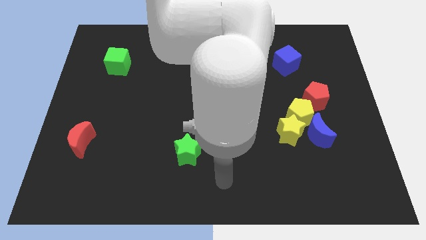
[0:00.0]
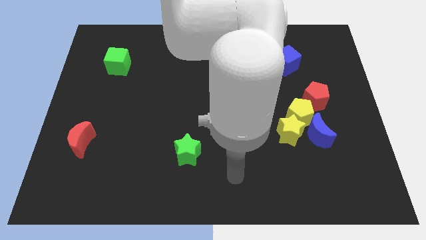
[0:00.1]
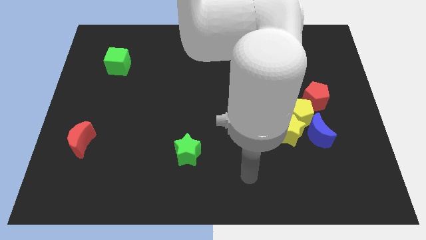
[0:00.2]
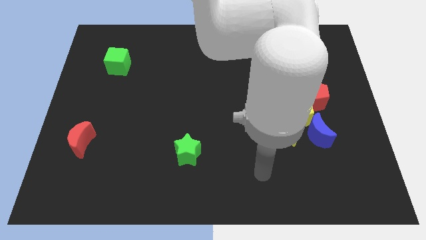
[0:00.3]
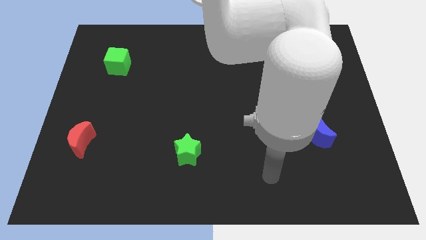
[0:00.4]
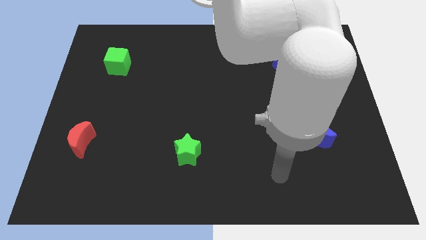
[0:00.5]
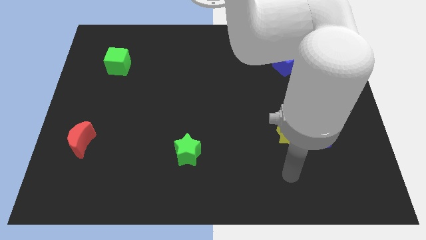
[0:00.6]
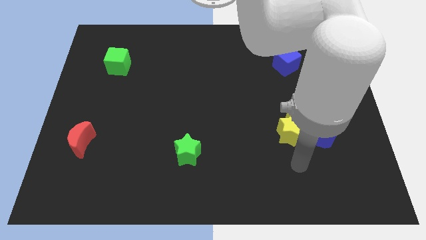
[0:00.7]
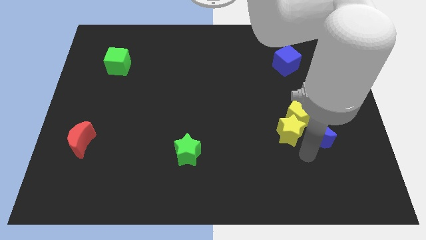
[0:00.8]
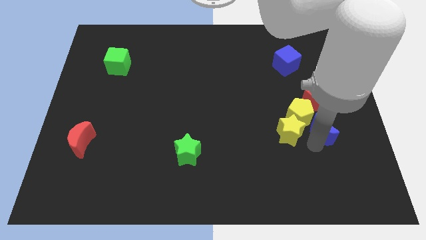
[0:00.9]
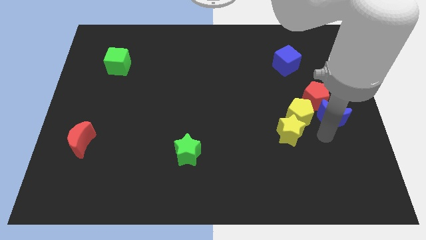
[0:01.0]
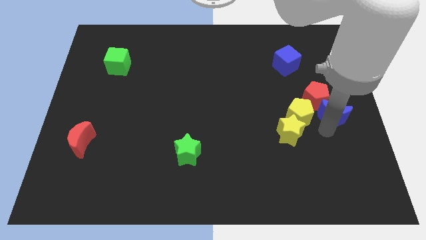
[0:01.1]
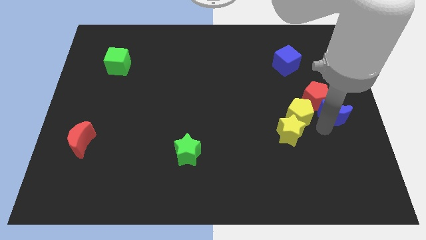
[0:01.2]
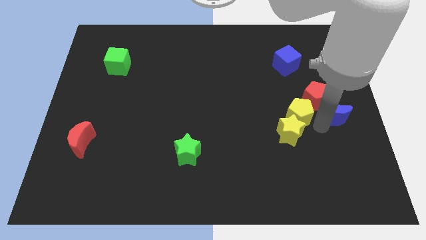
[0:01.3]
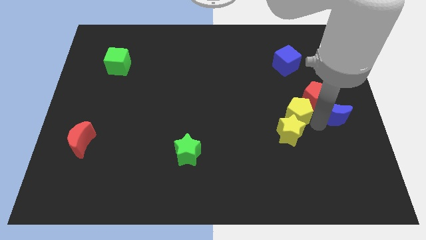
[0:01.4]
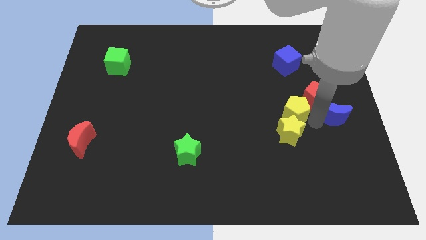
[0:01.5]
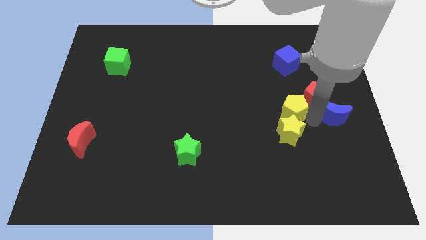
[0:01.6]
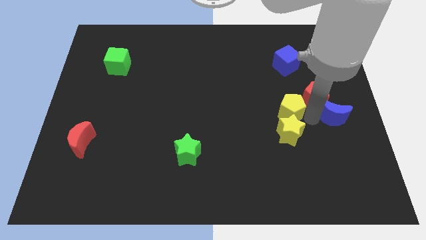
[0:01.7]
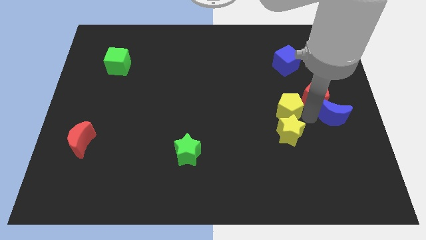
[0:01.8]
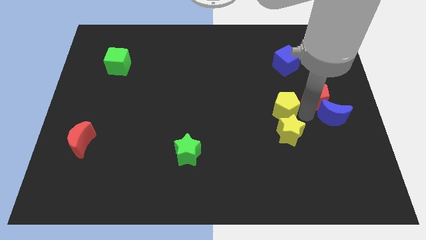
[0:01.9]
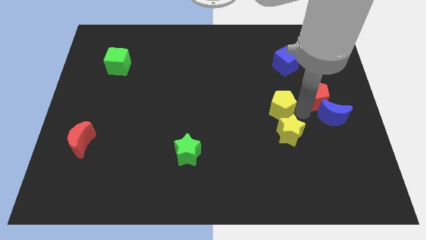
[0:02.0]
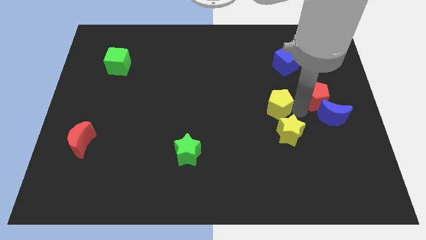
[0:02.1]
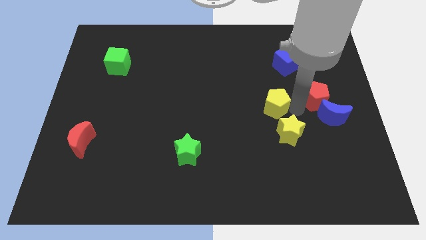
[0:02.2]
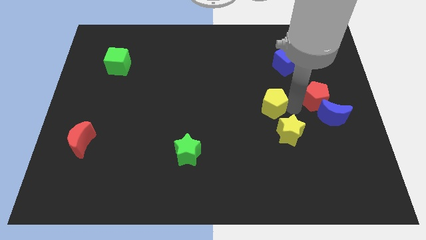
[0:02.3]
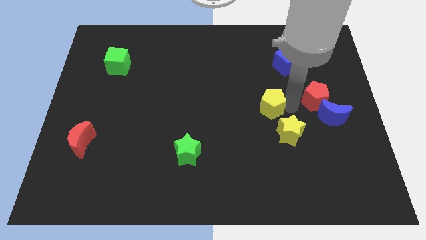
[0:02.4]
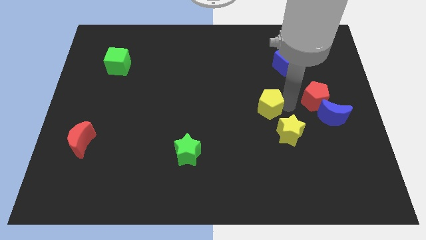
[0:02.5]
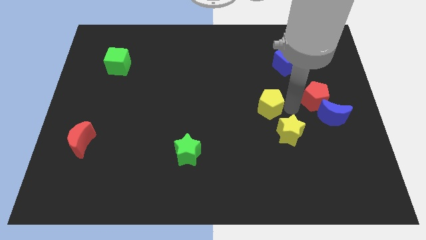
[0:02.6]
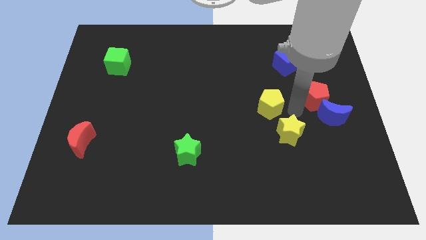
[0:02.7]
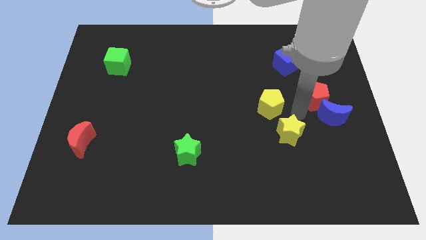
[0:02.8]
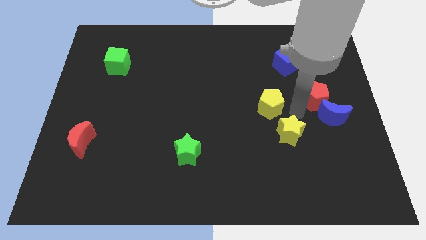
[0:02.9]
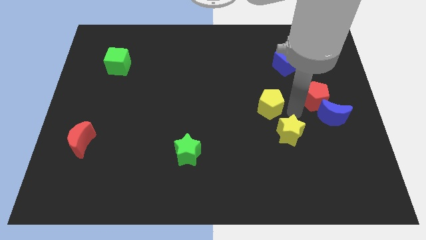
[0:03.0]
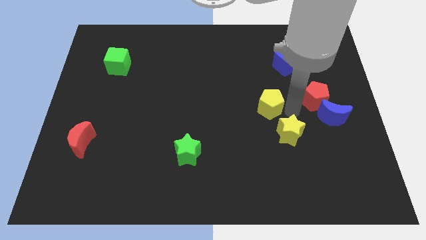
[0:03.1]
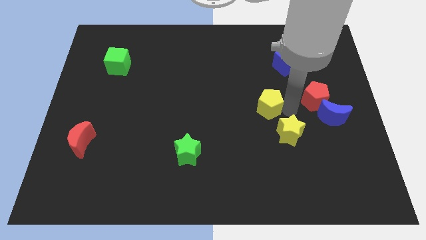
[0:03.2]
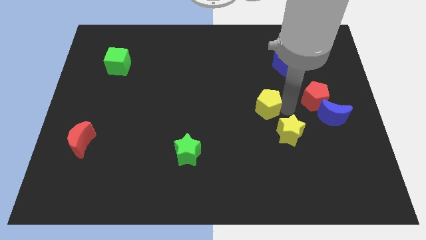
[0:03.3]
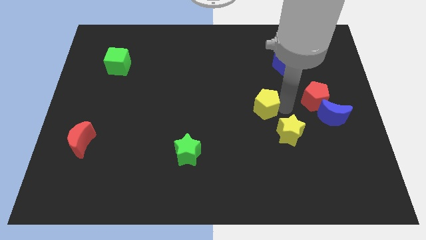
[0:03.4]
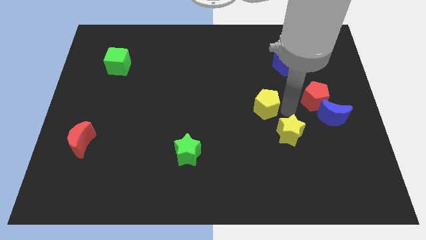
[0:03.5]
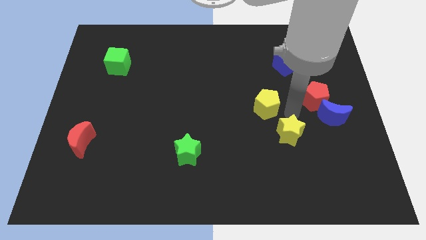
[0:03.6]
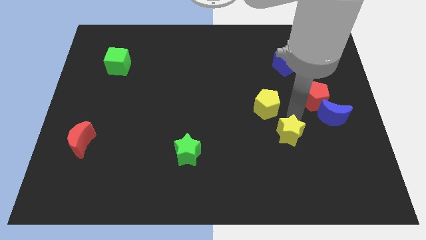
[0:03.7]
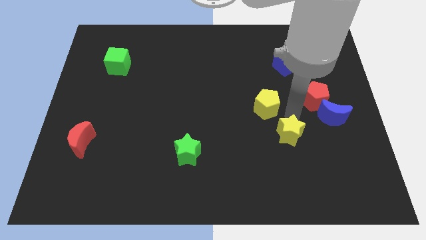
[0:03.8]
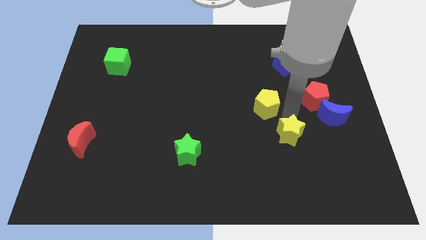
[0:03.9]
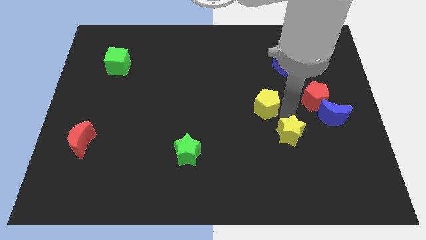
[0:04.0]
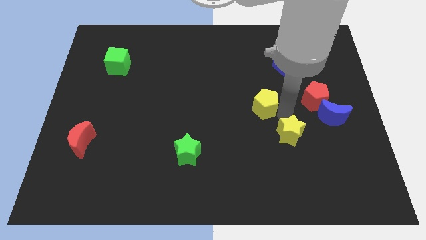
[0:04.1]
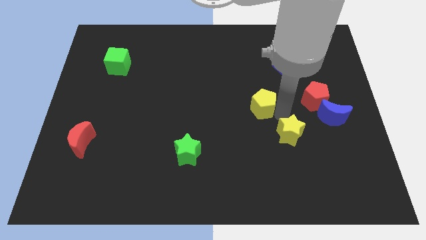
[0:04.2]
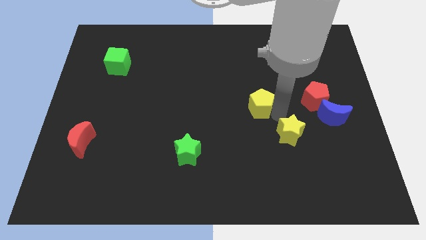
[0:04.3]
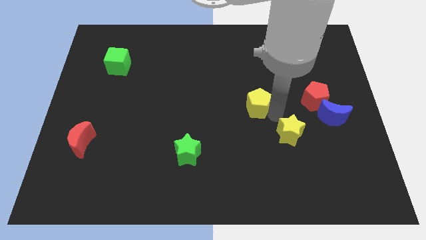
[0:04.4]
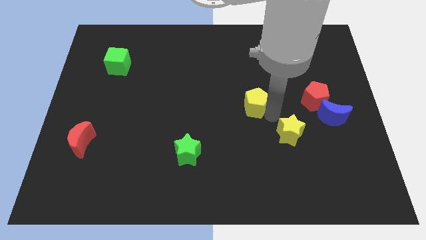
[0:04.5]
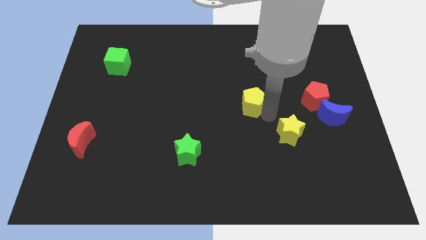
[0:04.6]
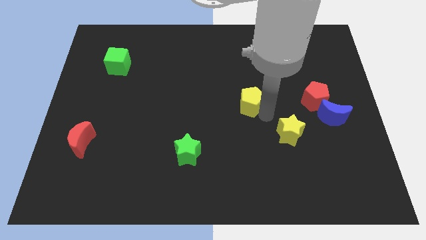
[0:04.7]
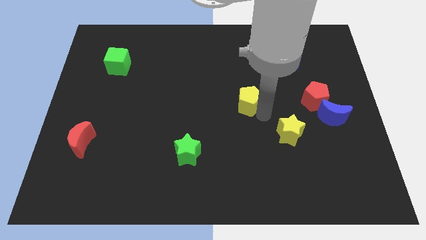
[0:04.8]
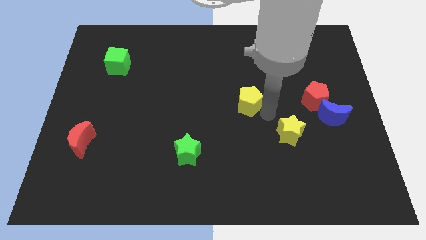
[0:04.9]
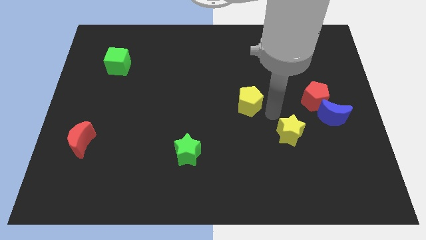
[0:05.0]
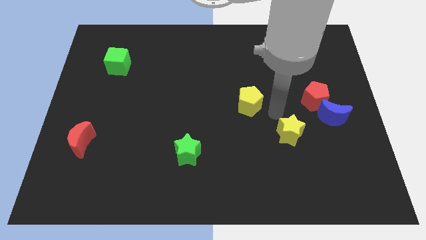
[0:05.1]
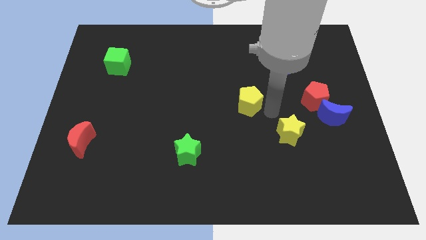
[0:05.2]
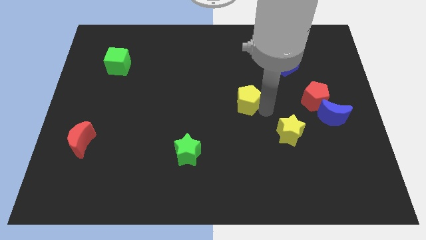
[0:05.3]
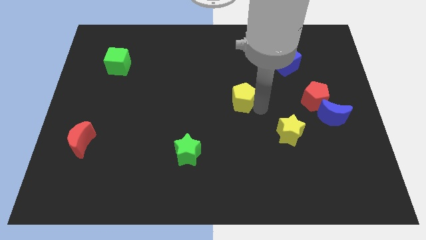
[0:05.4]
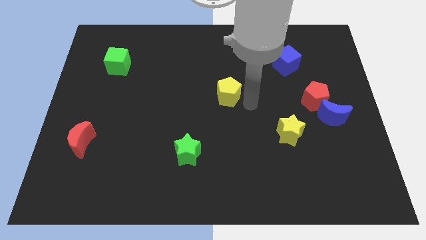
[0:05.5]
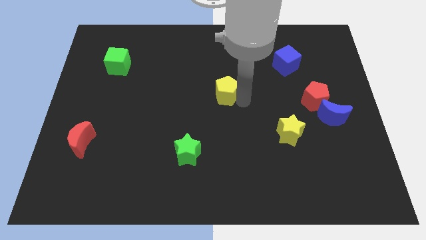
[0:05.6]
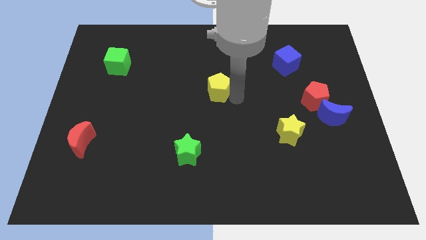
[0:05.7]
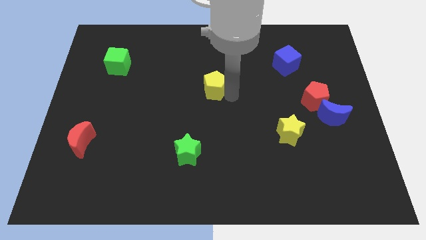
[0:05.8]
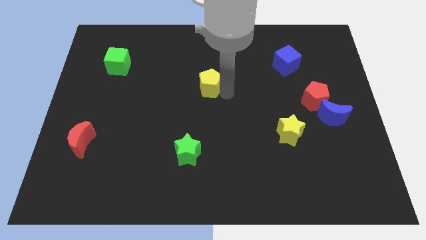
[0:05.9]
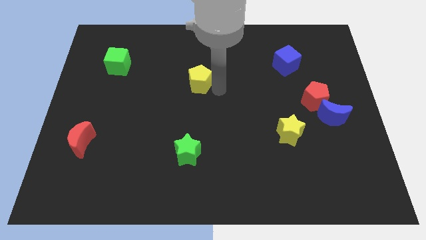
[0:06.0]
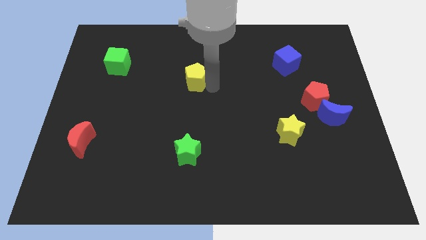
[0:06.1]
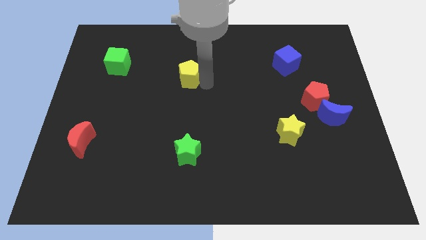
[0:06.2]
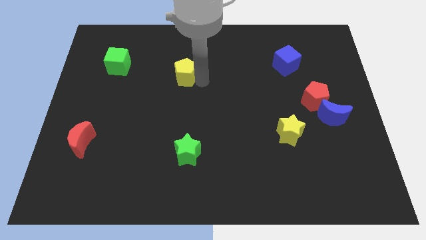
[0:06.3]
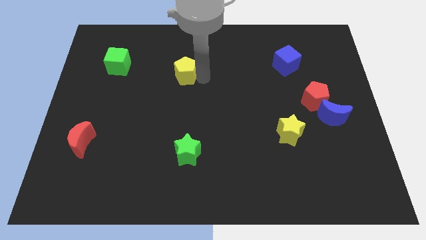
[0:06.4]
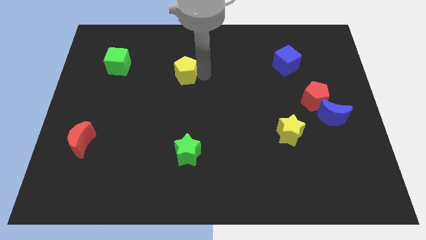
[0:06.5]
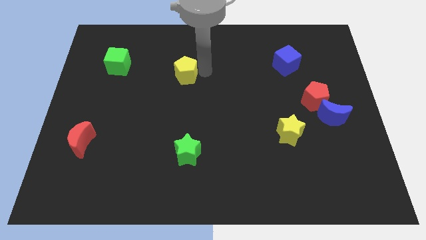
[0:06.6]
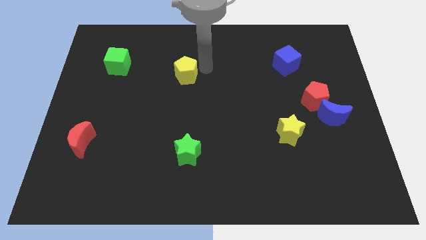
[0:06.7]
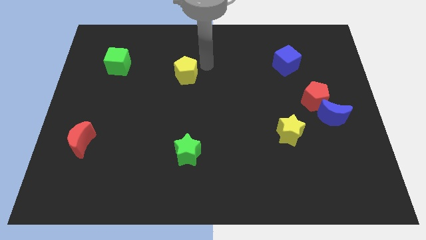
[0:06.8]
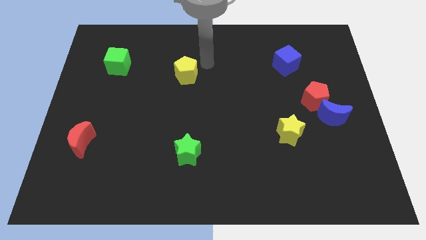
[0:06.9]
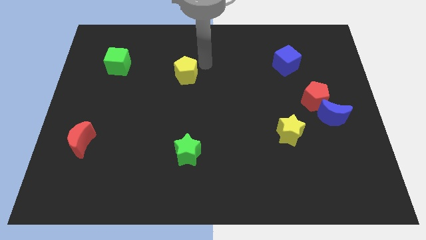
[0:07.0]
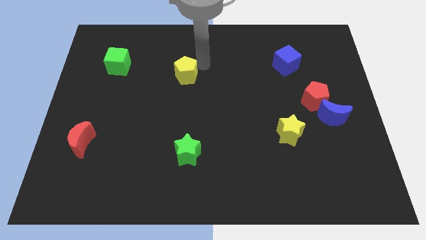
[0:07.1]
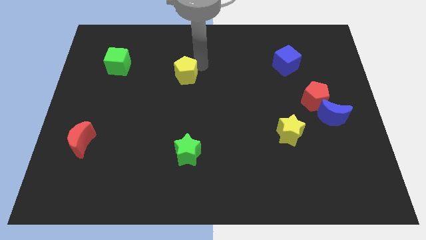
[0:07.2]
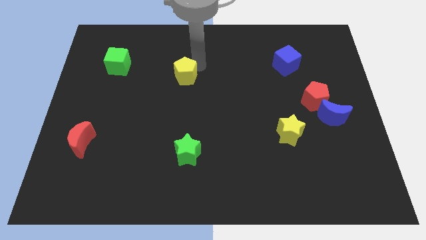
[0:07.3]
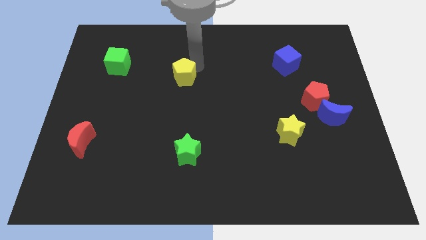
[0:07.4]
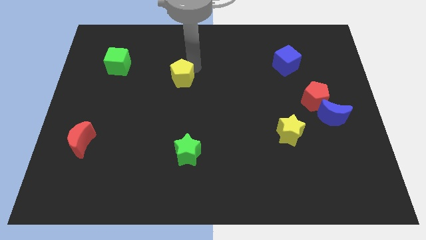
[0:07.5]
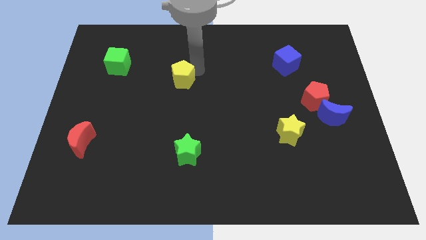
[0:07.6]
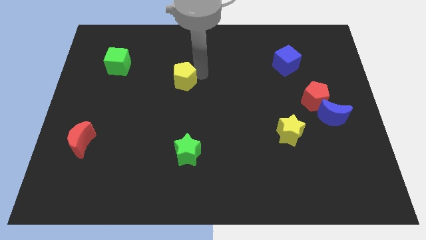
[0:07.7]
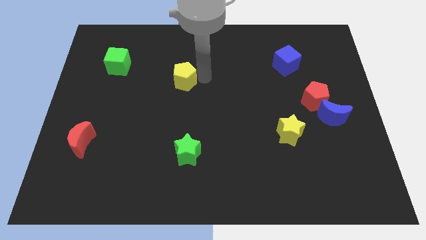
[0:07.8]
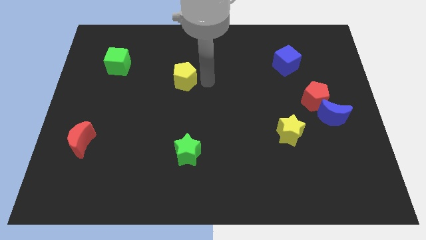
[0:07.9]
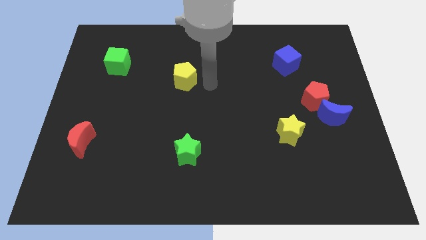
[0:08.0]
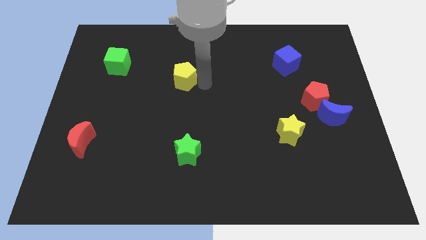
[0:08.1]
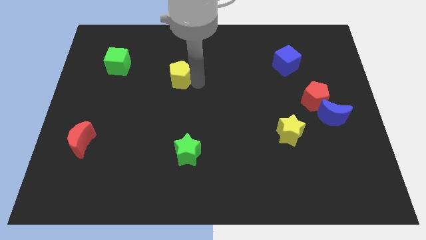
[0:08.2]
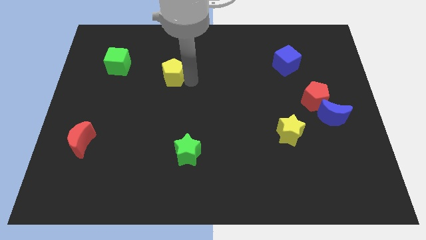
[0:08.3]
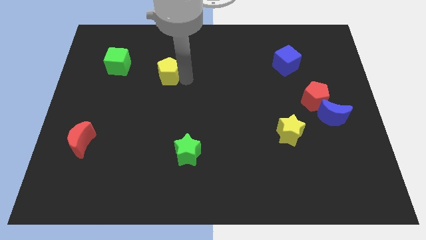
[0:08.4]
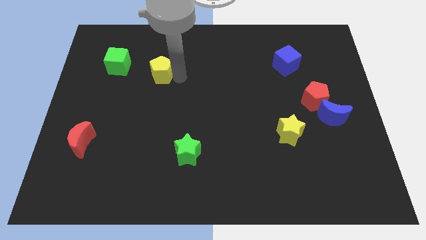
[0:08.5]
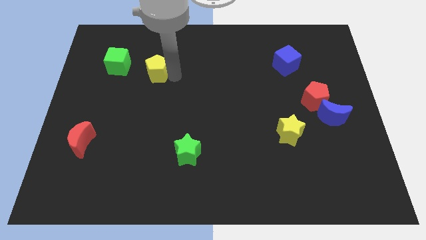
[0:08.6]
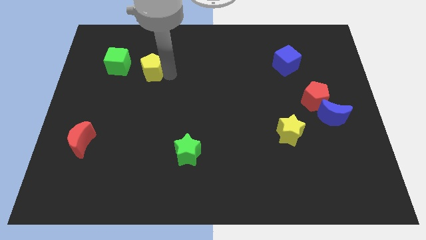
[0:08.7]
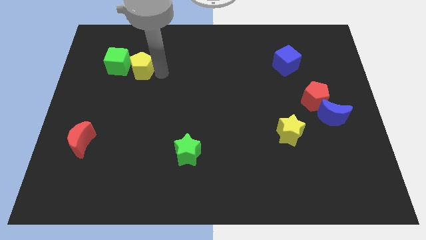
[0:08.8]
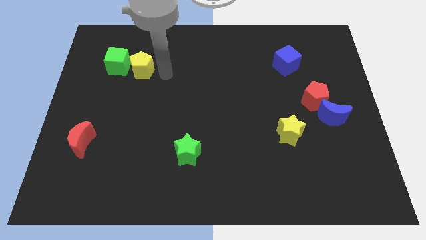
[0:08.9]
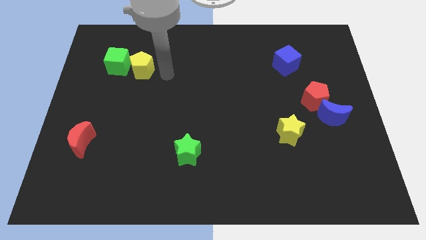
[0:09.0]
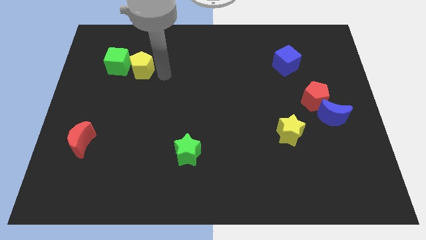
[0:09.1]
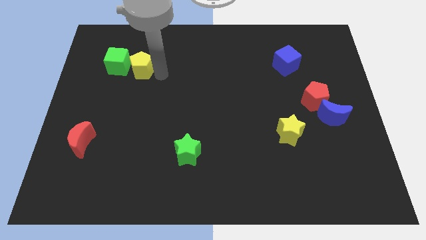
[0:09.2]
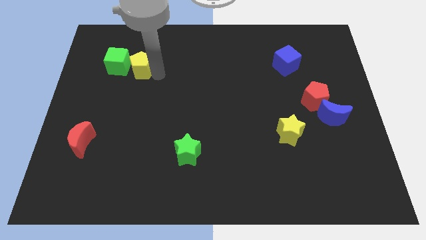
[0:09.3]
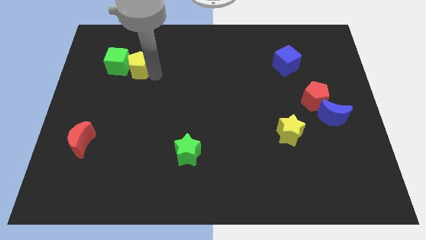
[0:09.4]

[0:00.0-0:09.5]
slide the yellow pentagon to the green cube
